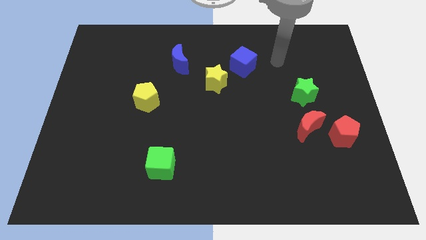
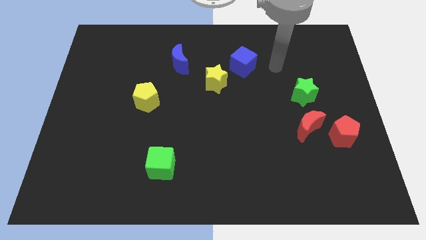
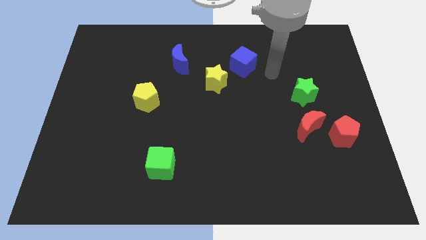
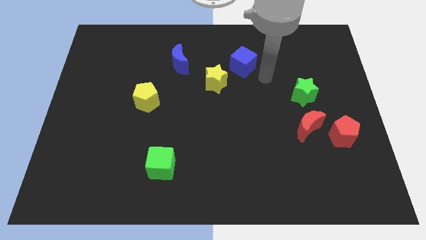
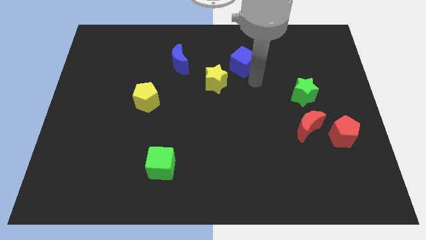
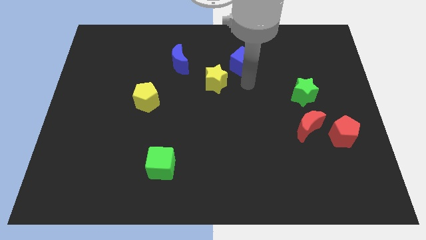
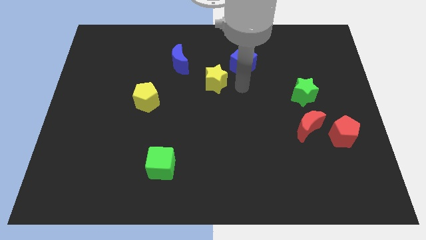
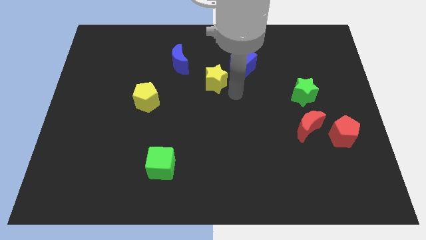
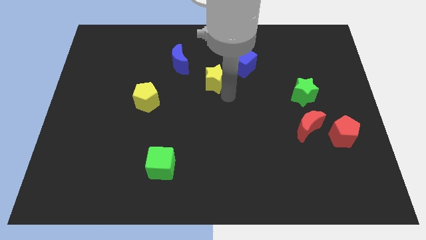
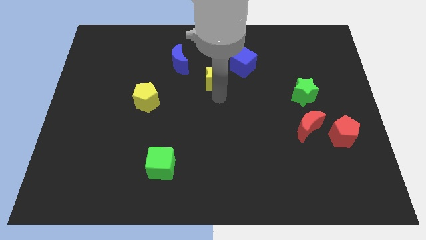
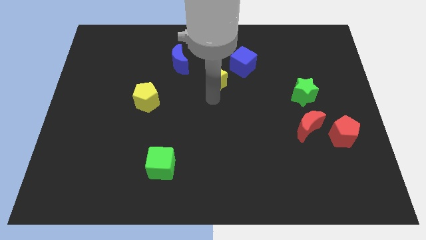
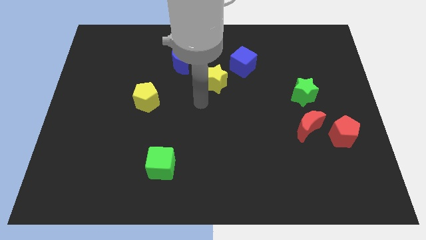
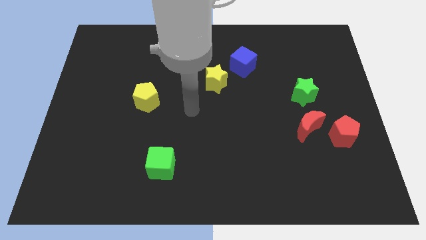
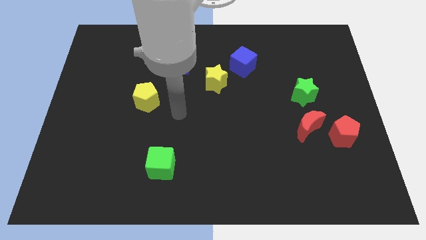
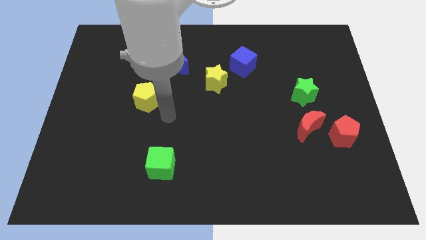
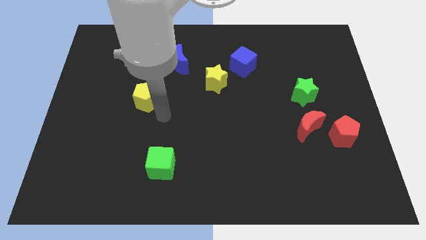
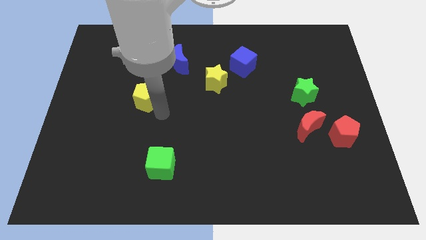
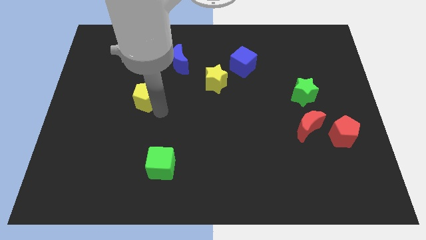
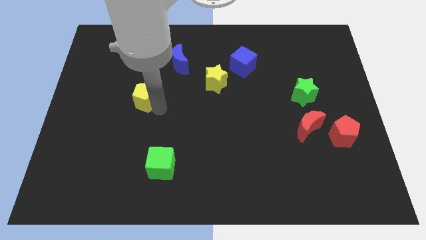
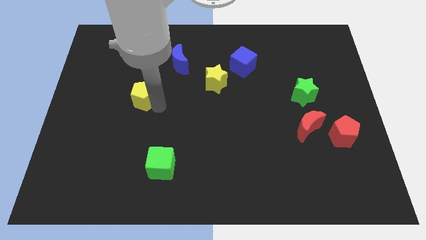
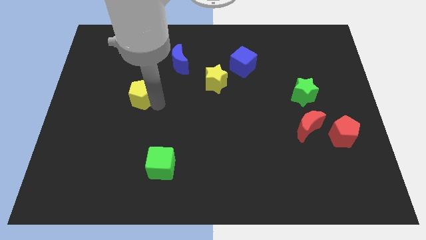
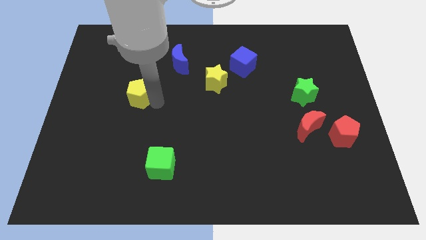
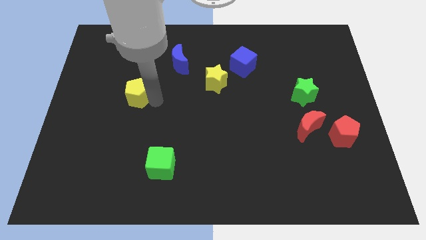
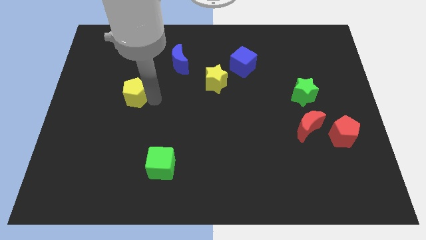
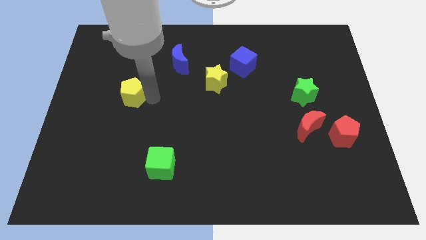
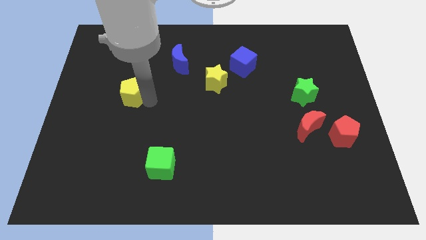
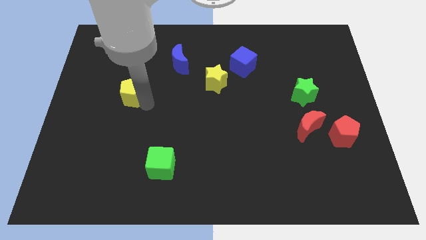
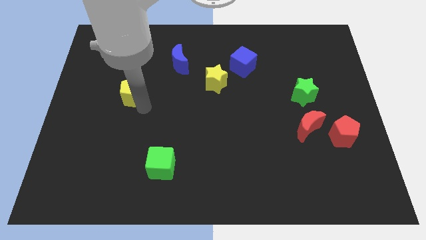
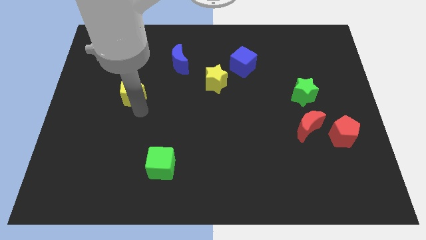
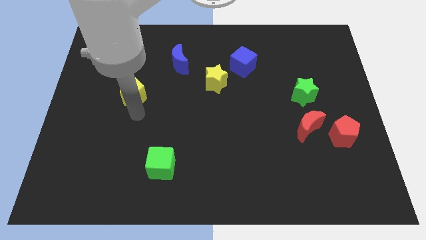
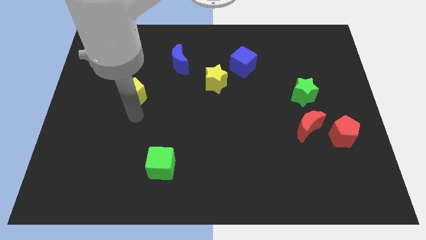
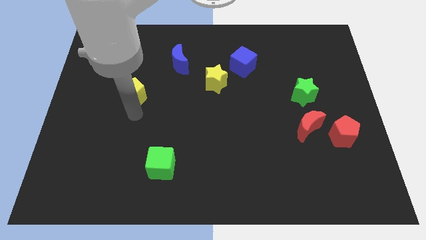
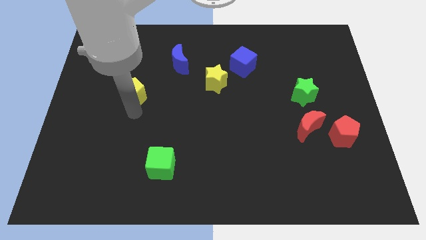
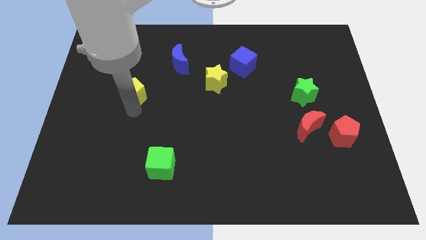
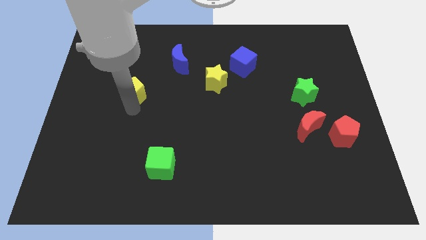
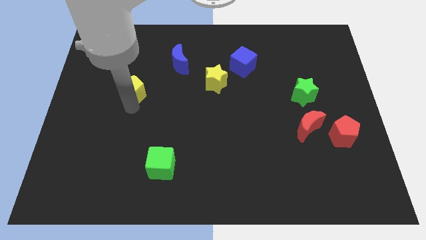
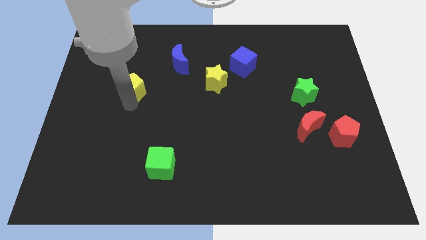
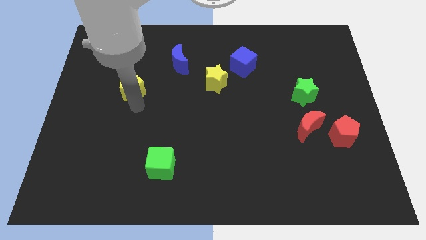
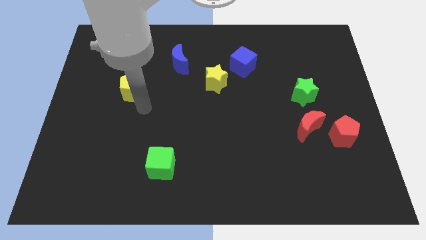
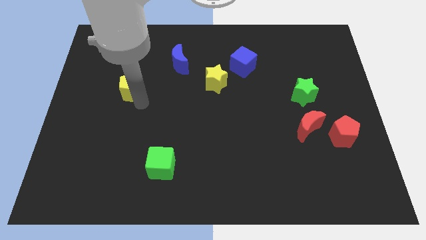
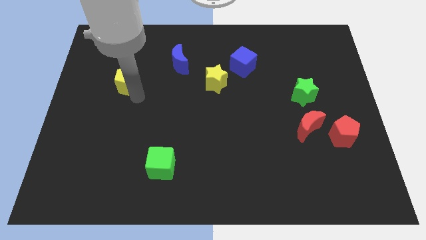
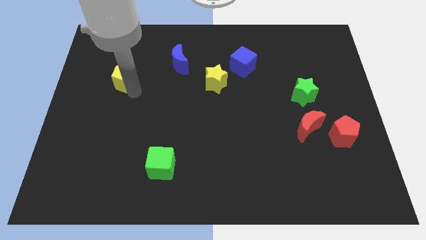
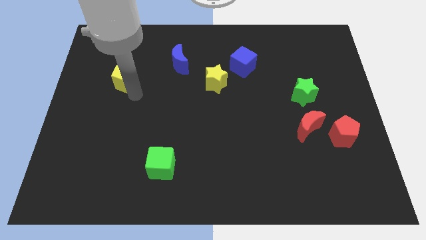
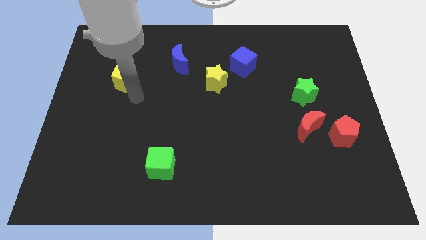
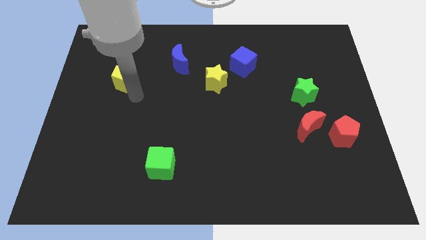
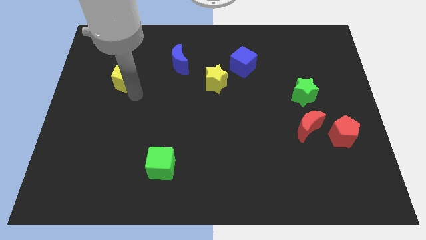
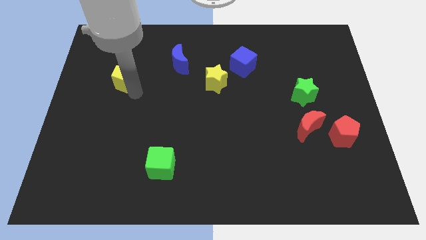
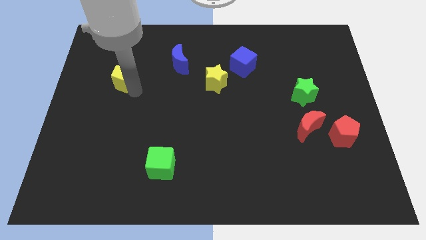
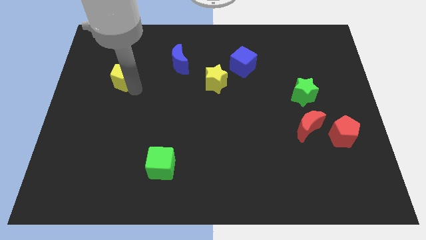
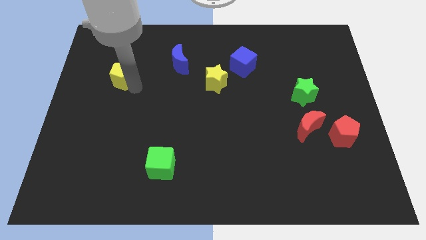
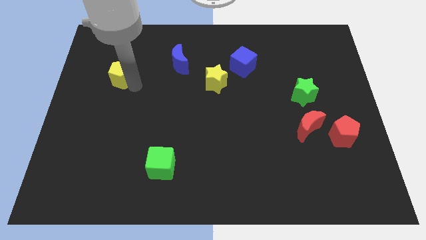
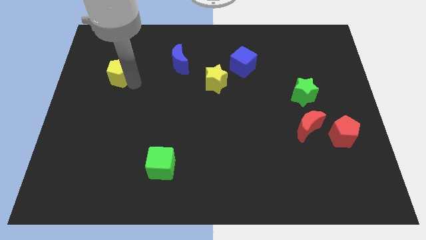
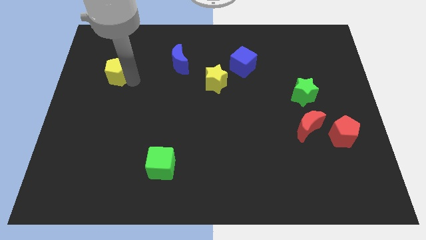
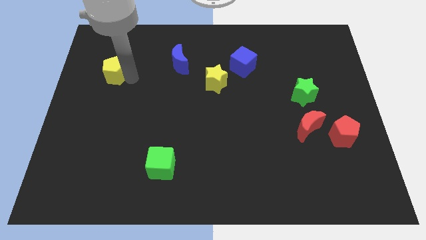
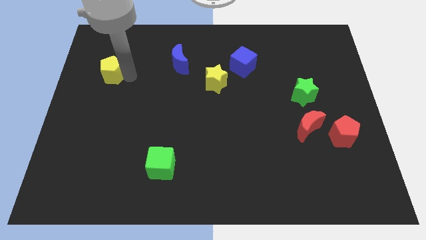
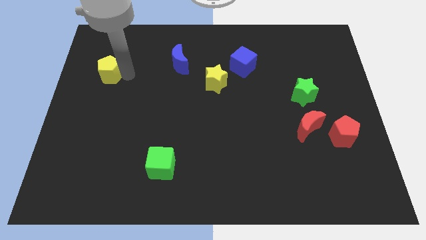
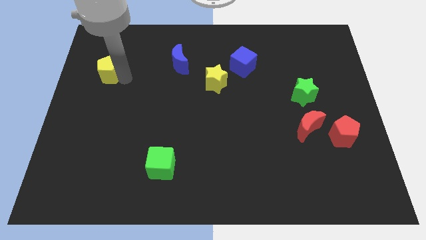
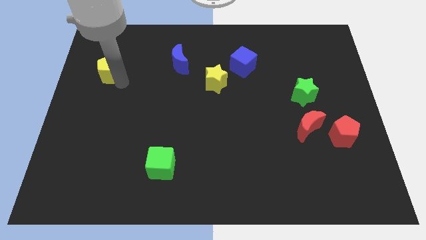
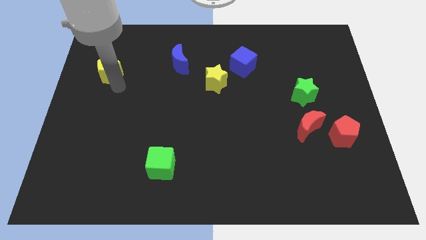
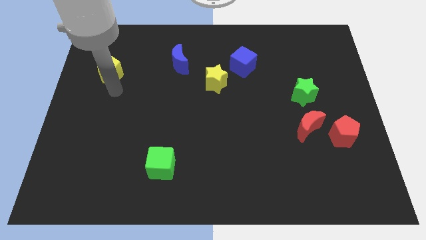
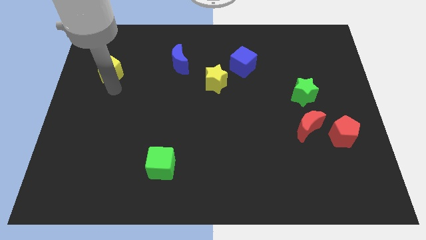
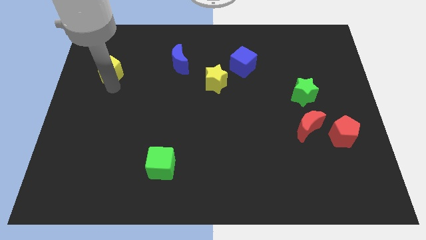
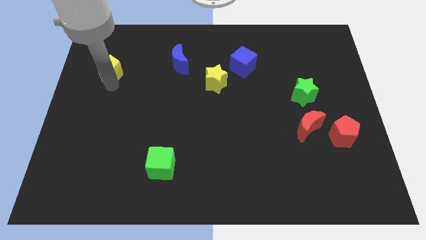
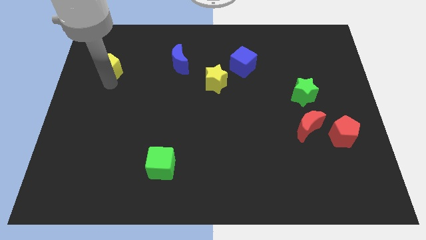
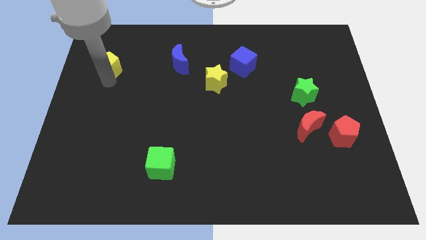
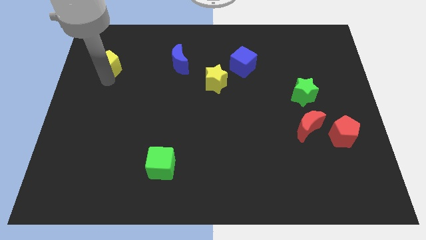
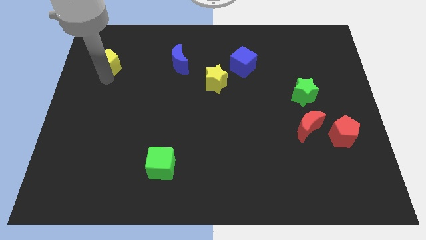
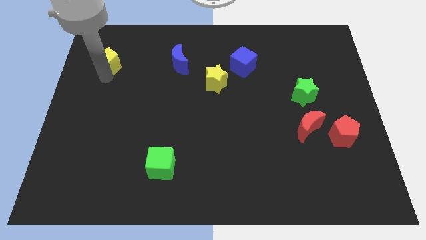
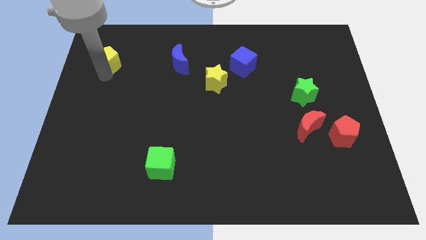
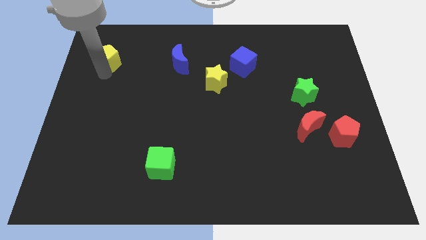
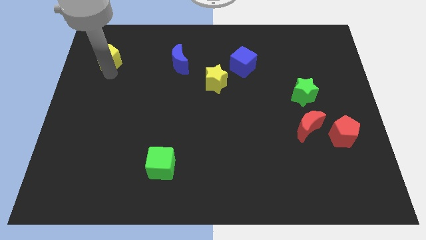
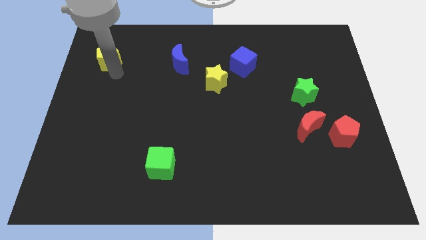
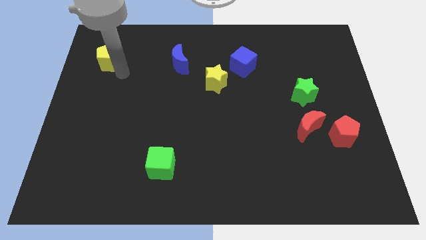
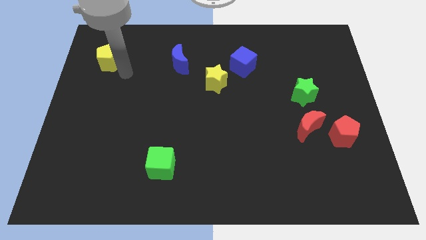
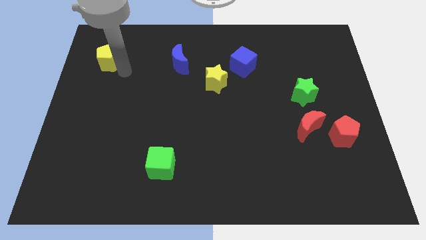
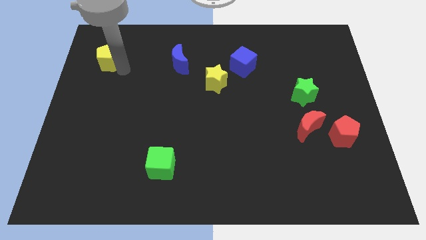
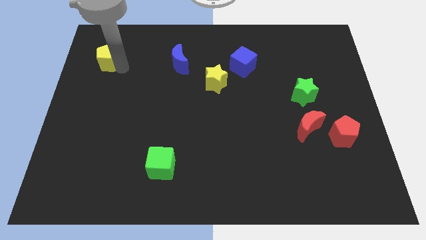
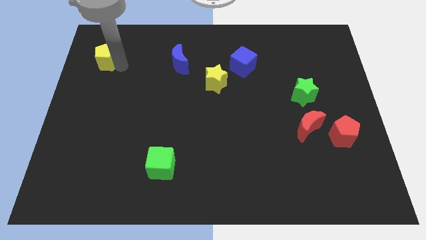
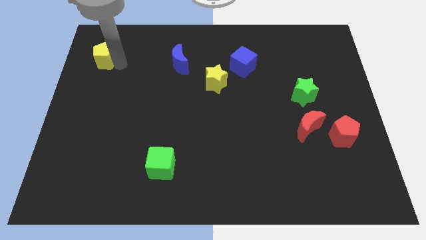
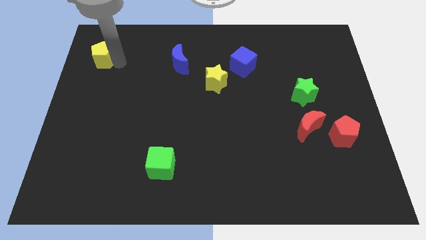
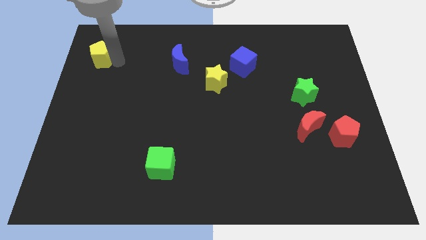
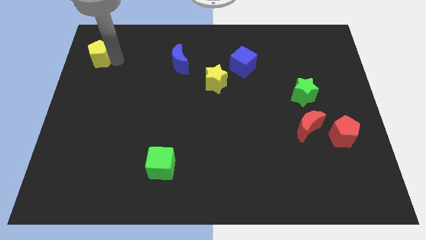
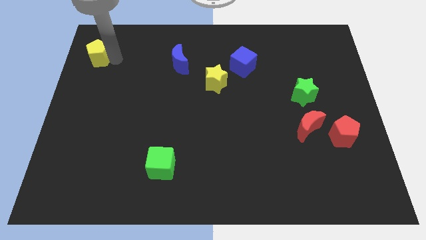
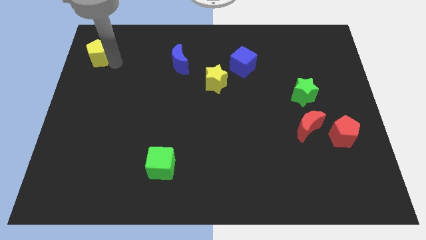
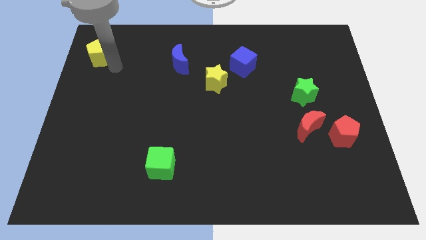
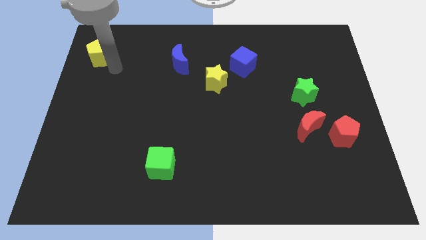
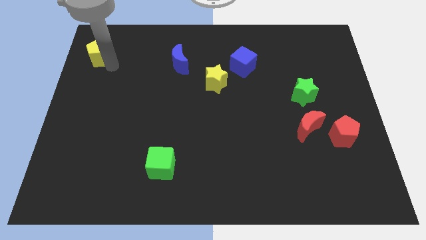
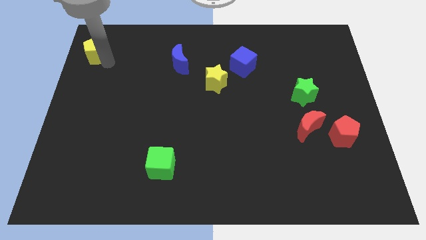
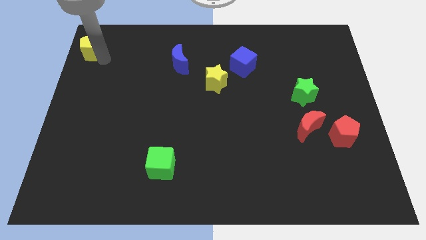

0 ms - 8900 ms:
push the yellow pentagon to the upper left corner
